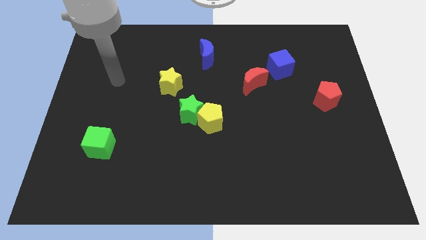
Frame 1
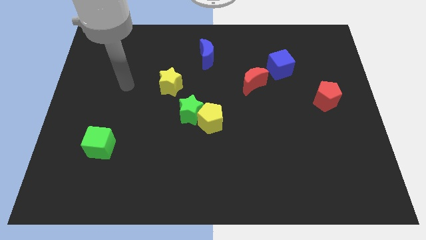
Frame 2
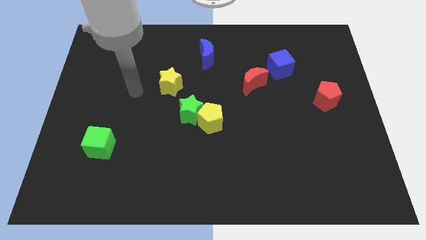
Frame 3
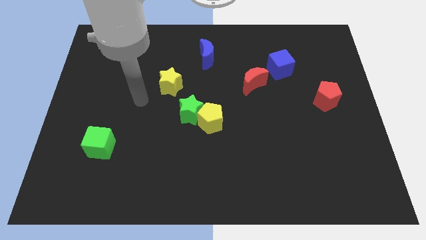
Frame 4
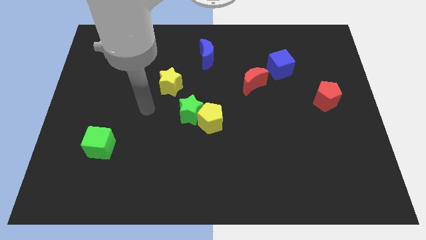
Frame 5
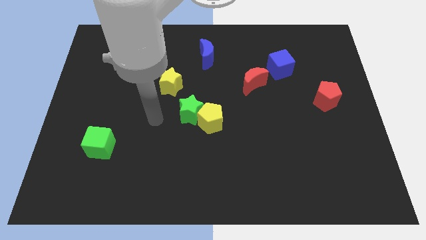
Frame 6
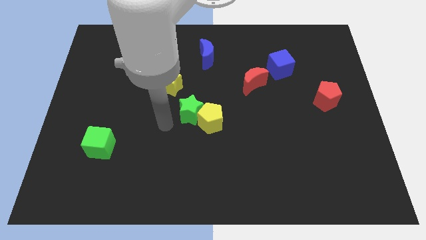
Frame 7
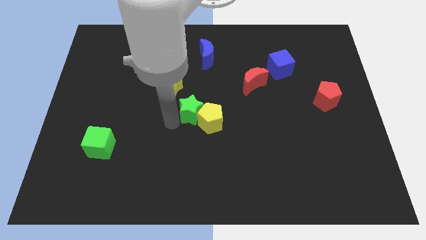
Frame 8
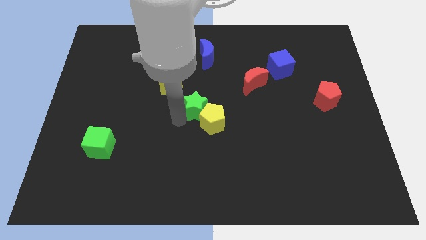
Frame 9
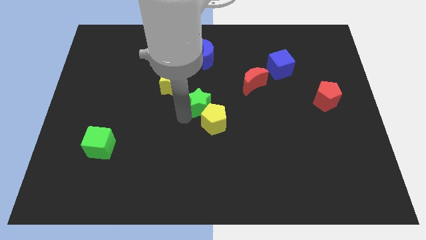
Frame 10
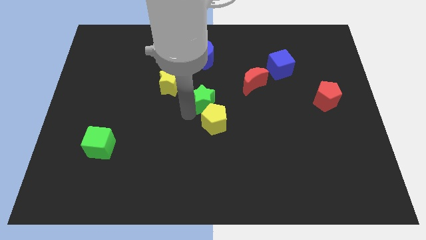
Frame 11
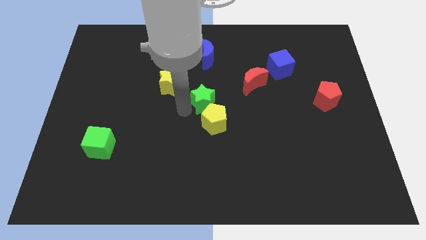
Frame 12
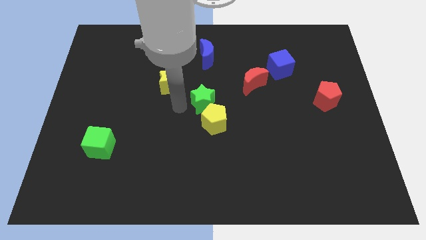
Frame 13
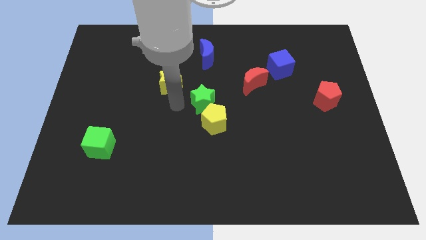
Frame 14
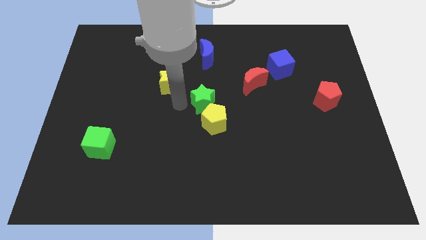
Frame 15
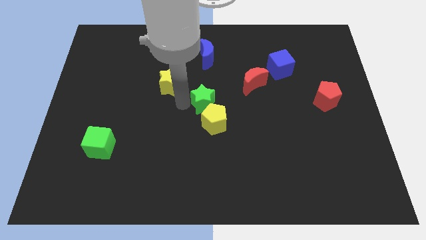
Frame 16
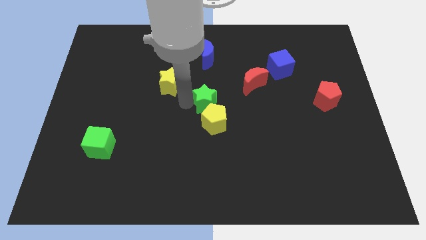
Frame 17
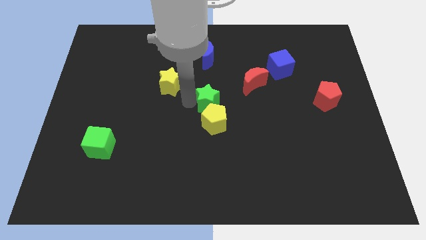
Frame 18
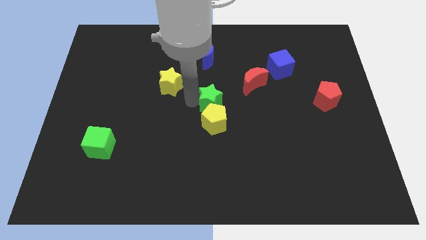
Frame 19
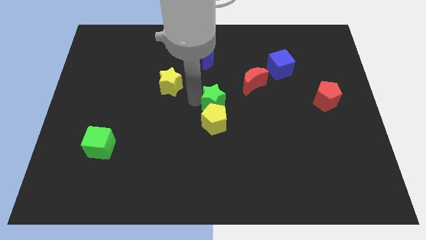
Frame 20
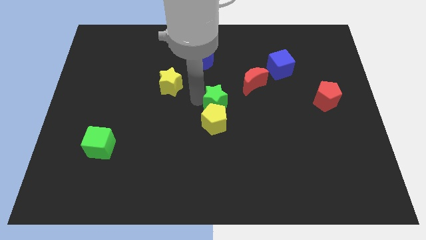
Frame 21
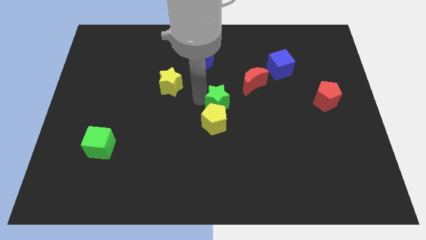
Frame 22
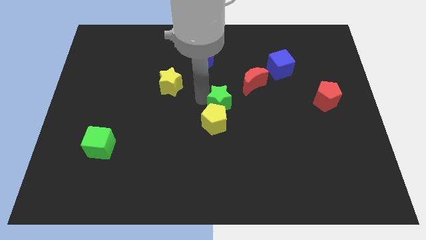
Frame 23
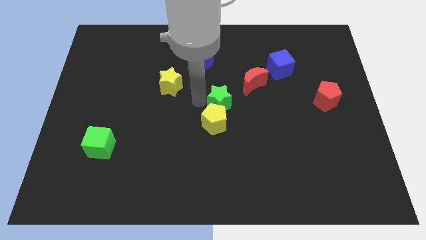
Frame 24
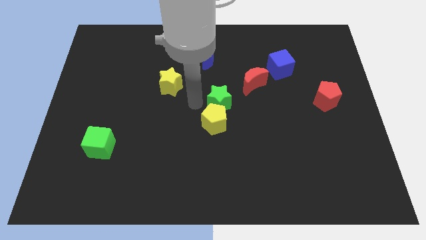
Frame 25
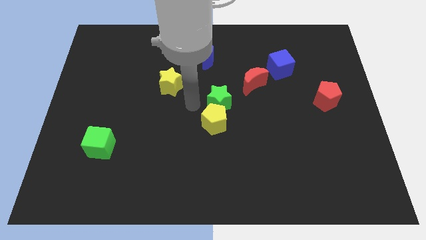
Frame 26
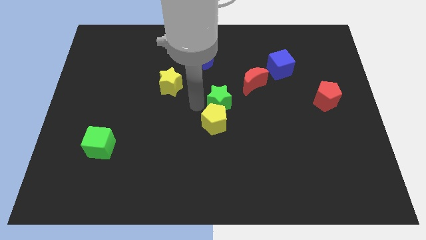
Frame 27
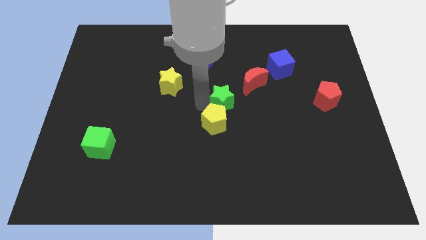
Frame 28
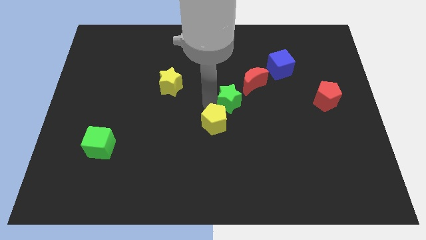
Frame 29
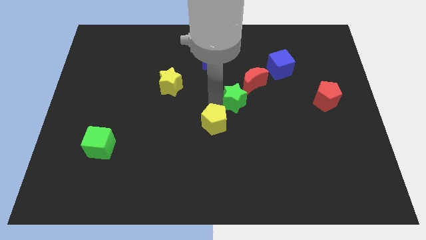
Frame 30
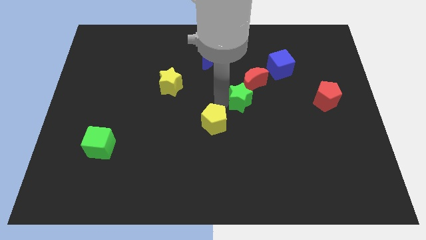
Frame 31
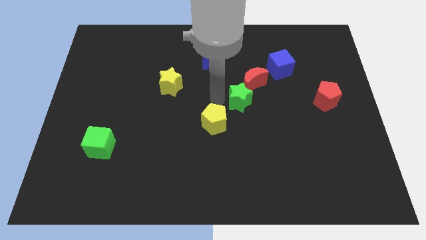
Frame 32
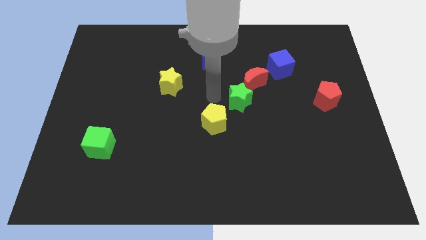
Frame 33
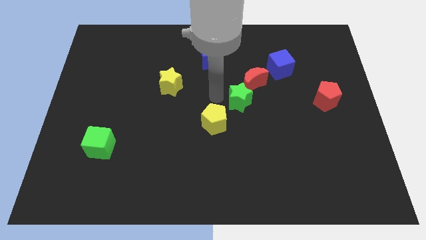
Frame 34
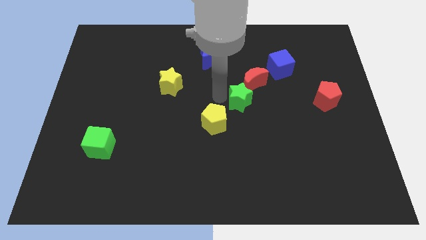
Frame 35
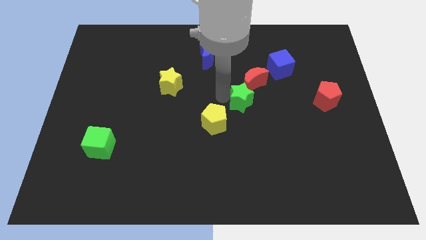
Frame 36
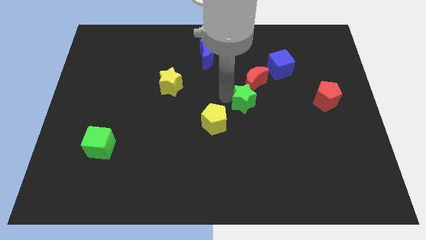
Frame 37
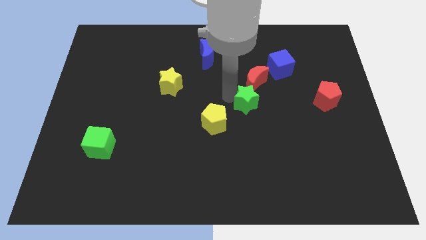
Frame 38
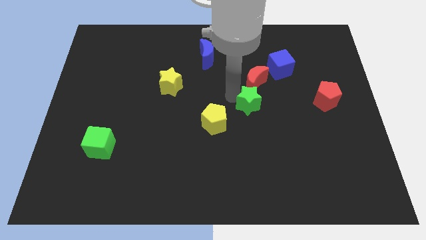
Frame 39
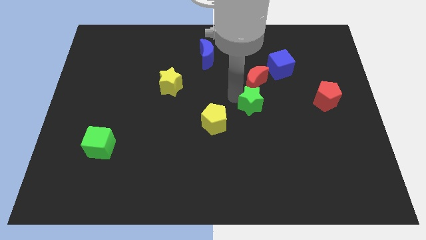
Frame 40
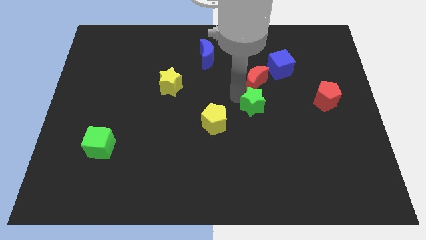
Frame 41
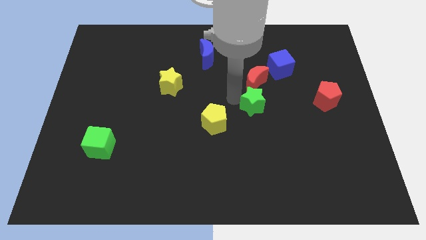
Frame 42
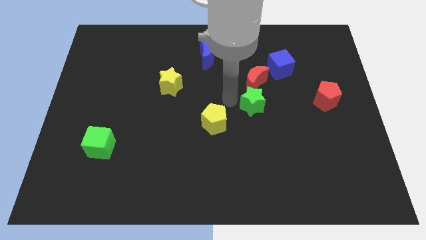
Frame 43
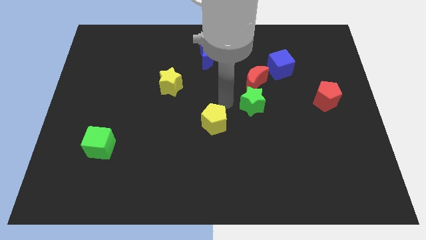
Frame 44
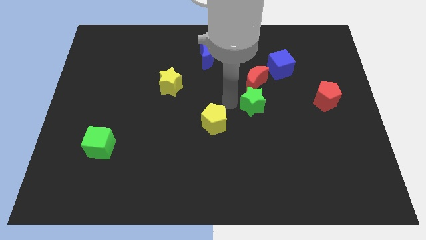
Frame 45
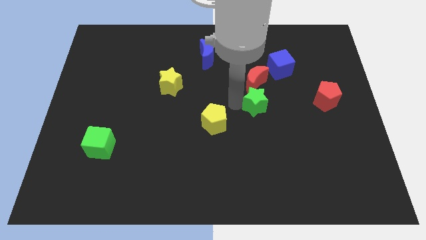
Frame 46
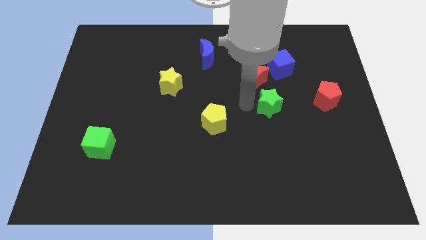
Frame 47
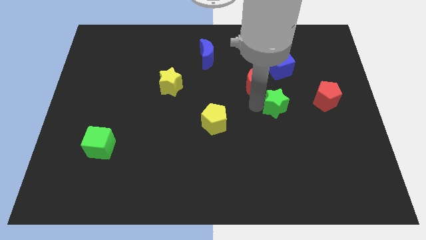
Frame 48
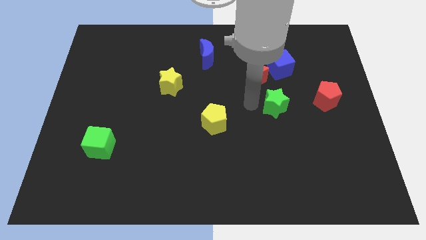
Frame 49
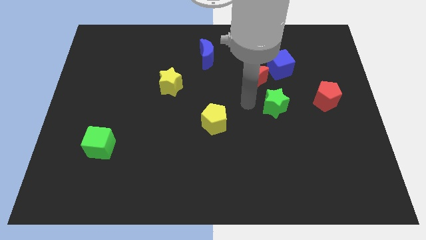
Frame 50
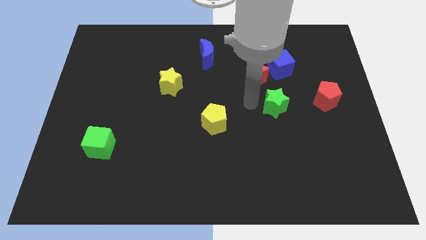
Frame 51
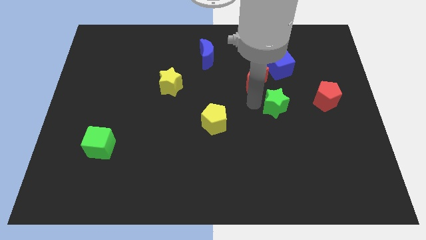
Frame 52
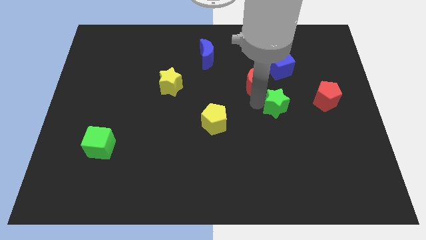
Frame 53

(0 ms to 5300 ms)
move the green star to the right

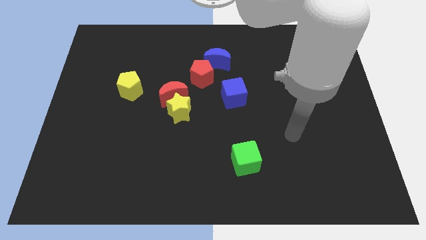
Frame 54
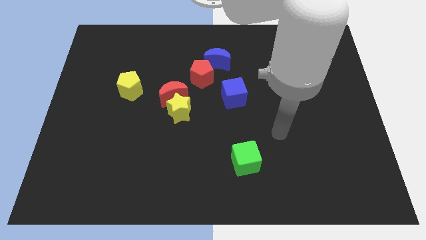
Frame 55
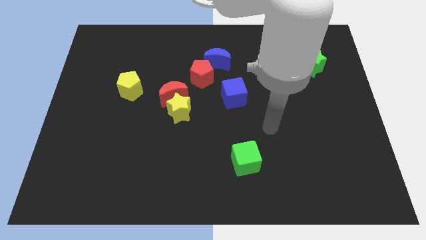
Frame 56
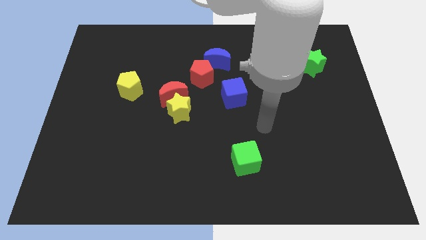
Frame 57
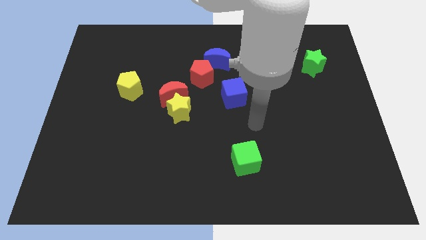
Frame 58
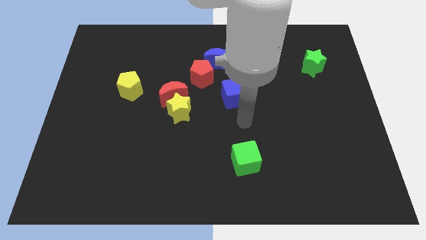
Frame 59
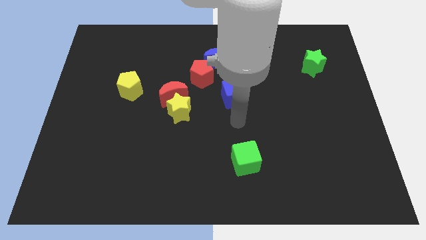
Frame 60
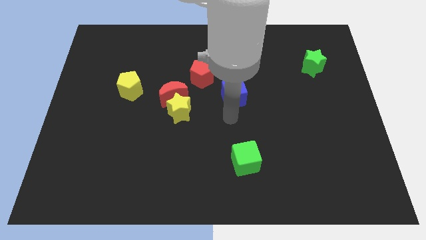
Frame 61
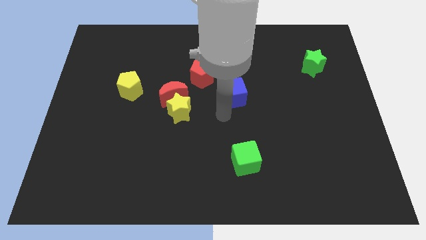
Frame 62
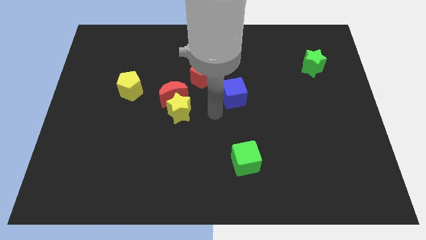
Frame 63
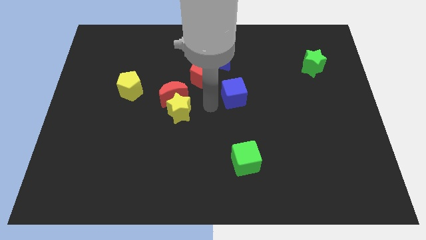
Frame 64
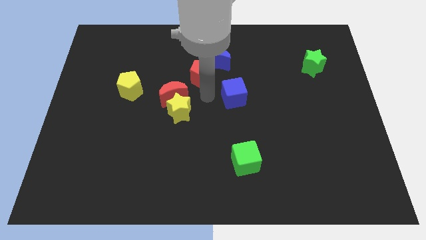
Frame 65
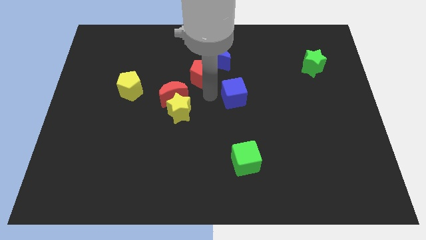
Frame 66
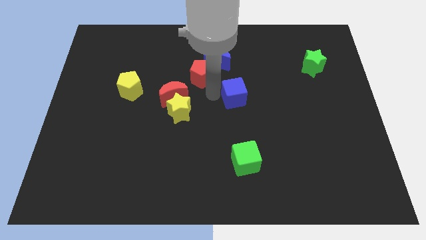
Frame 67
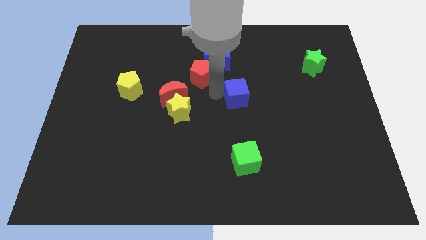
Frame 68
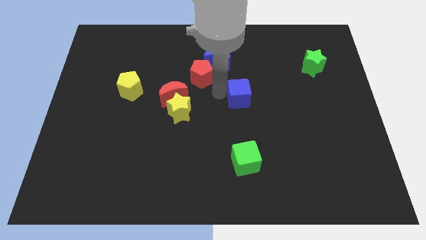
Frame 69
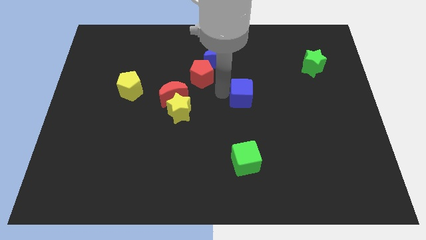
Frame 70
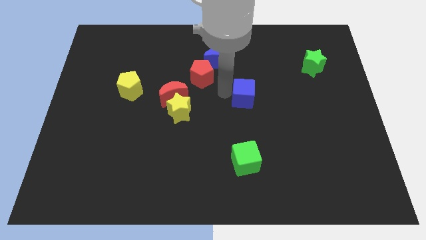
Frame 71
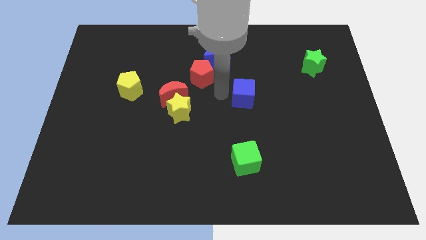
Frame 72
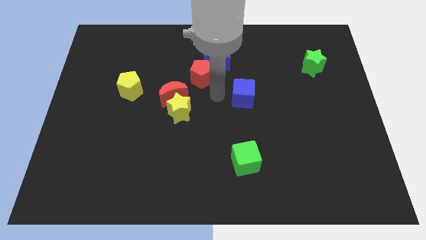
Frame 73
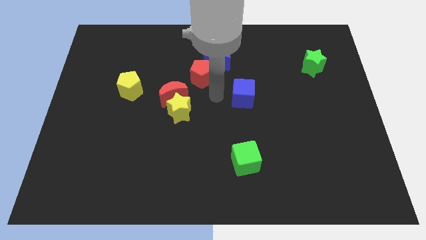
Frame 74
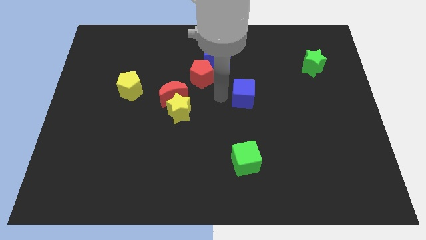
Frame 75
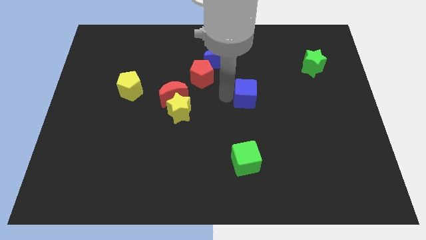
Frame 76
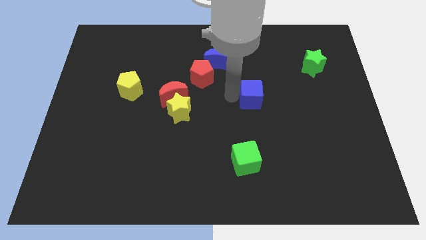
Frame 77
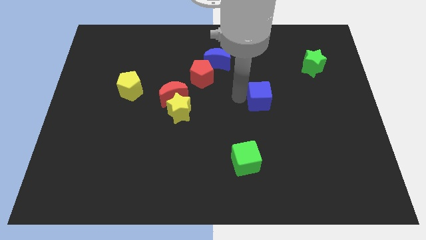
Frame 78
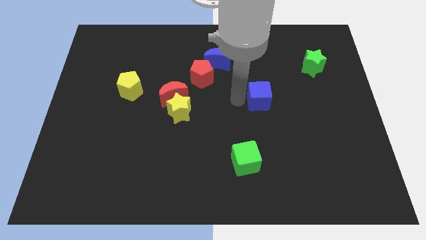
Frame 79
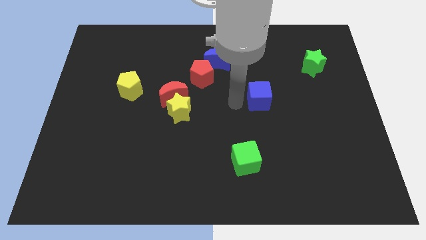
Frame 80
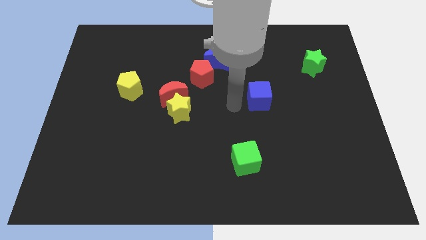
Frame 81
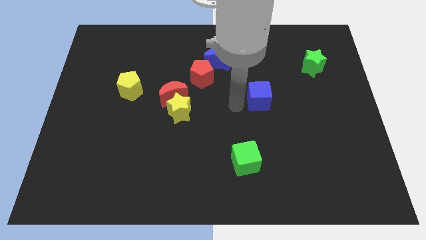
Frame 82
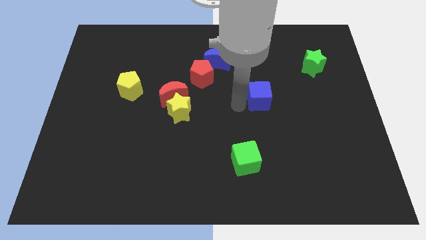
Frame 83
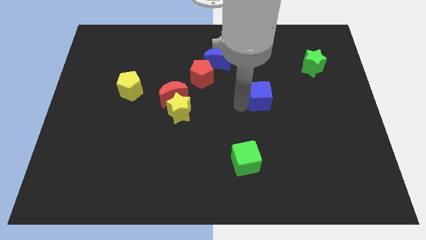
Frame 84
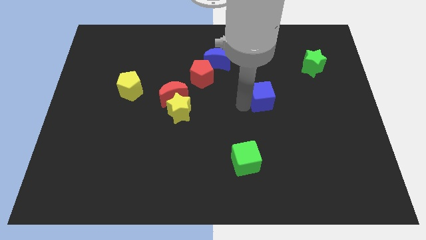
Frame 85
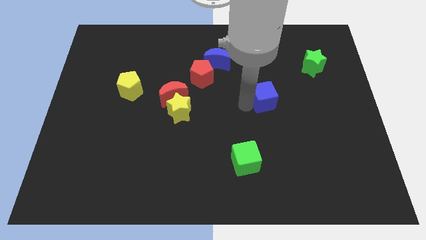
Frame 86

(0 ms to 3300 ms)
slide the blue cube somewhat to the right
